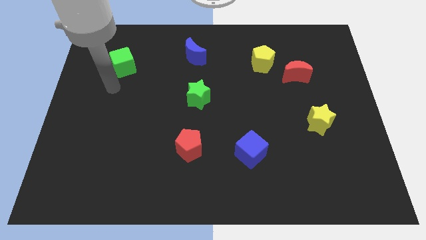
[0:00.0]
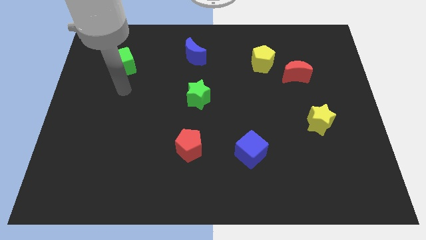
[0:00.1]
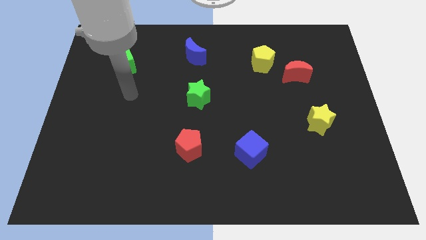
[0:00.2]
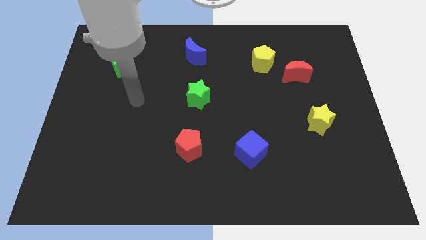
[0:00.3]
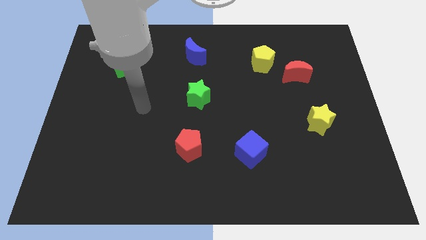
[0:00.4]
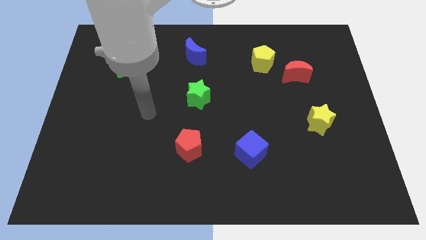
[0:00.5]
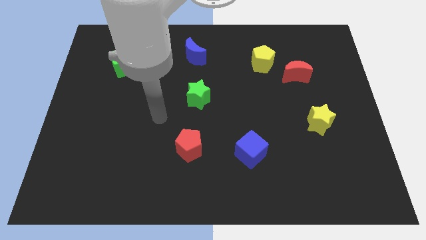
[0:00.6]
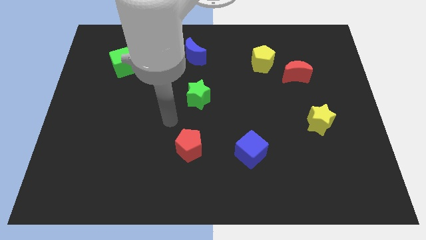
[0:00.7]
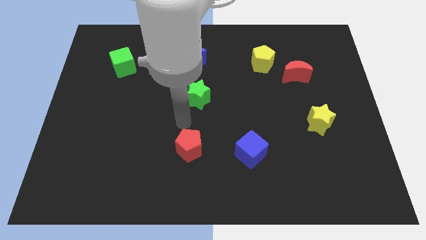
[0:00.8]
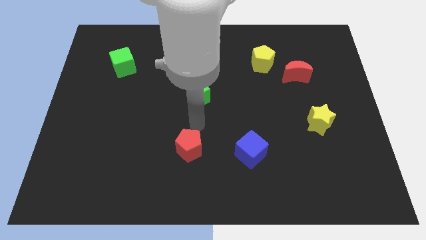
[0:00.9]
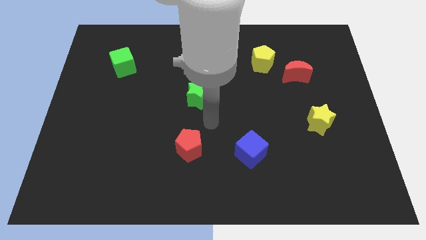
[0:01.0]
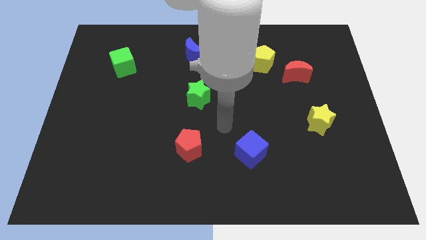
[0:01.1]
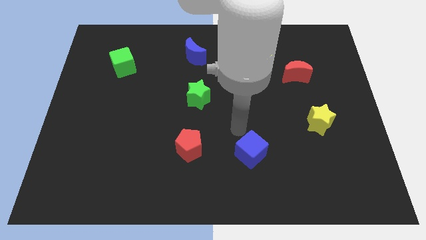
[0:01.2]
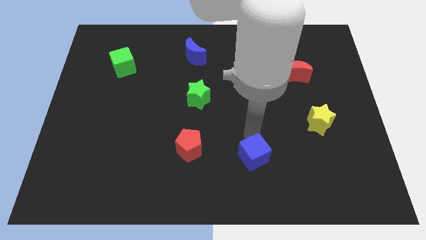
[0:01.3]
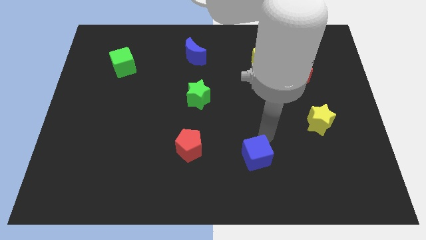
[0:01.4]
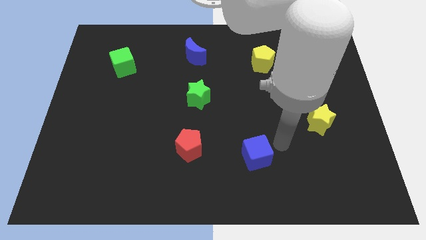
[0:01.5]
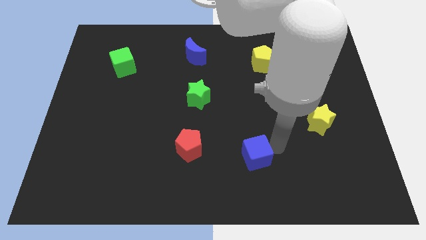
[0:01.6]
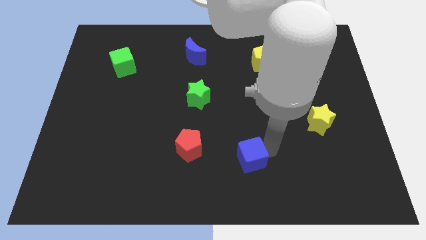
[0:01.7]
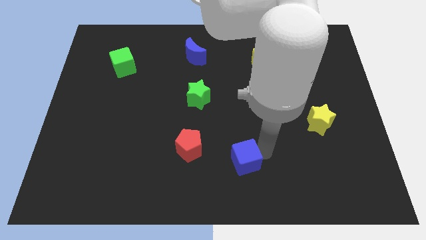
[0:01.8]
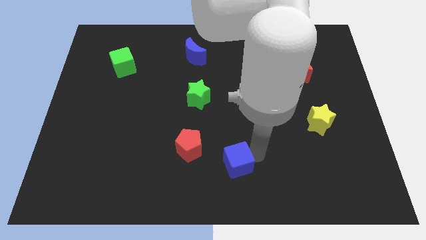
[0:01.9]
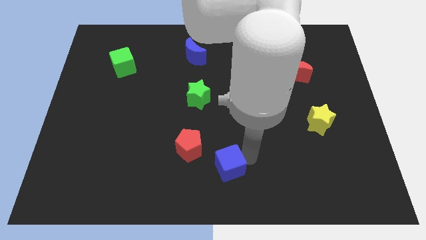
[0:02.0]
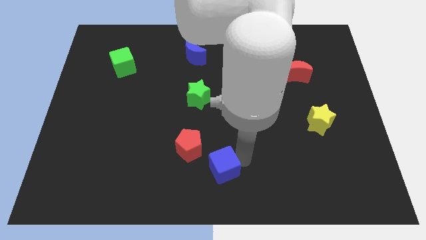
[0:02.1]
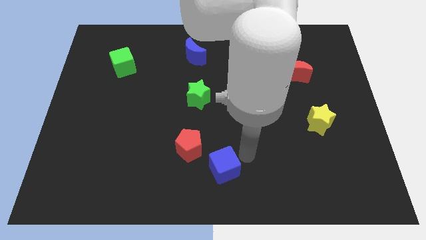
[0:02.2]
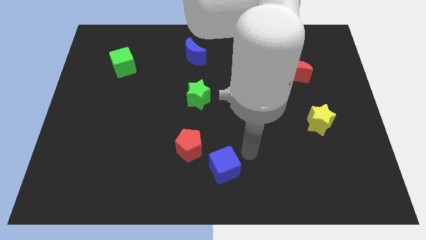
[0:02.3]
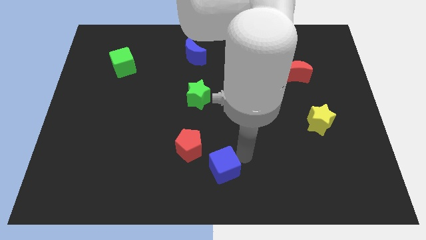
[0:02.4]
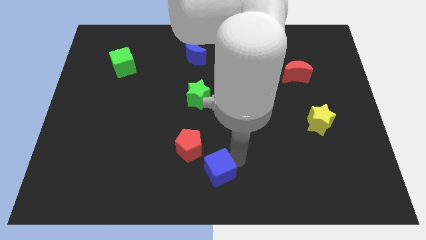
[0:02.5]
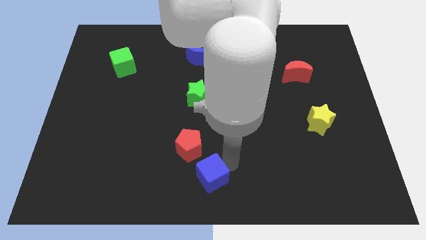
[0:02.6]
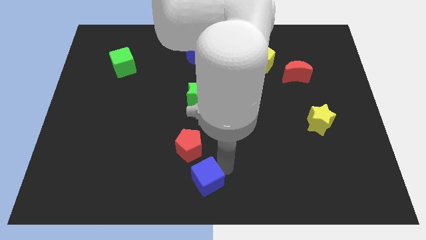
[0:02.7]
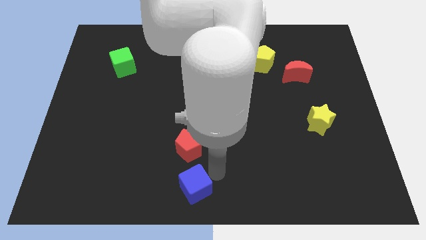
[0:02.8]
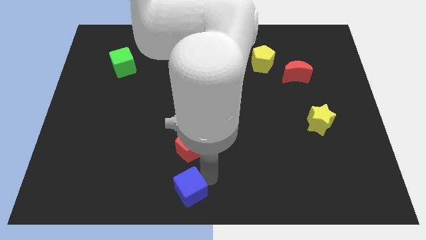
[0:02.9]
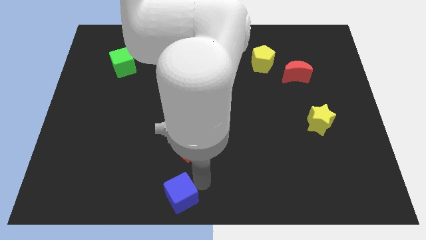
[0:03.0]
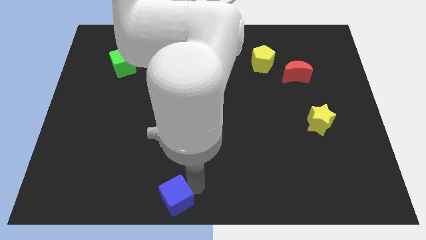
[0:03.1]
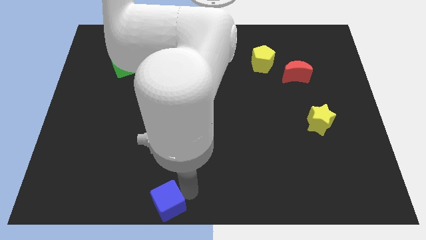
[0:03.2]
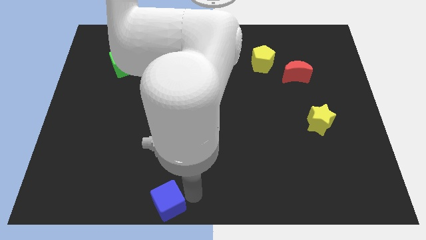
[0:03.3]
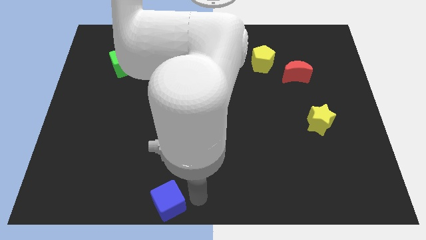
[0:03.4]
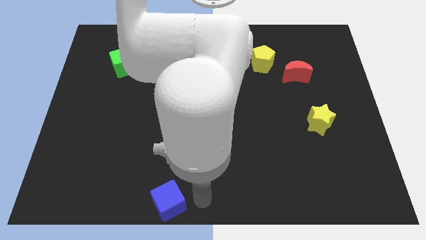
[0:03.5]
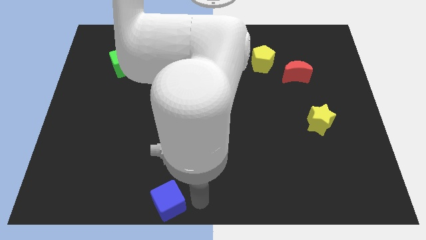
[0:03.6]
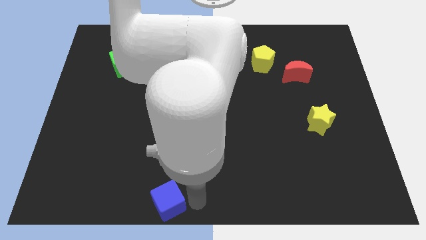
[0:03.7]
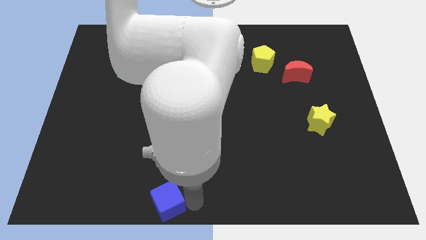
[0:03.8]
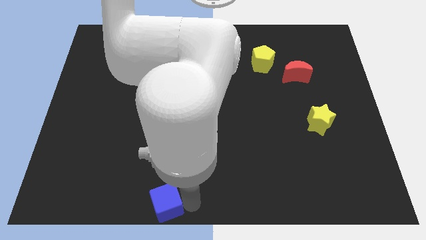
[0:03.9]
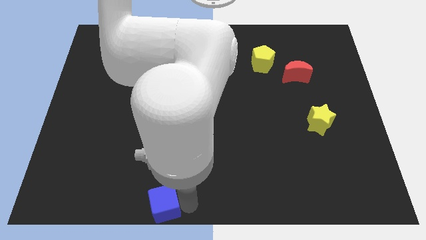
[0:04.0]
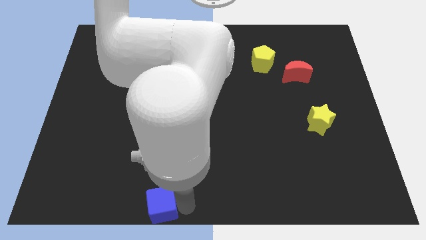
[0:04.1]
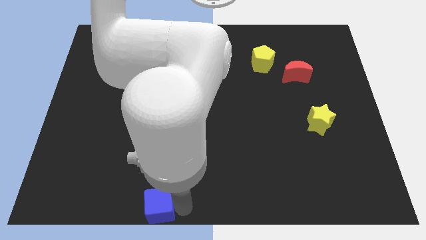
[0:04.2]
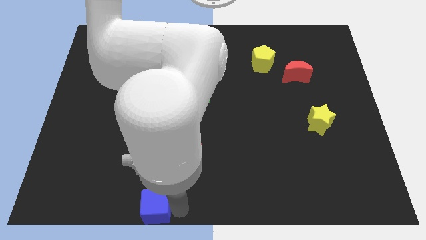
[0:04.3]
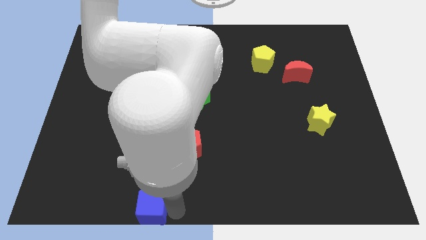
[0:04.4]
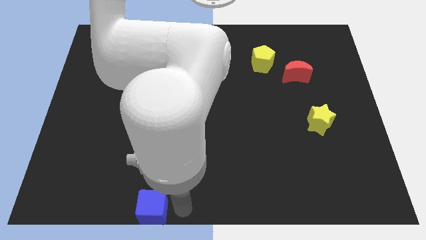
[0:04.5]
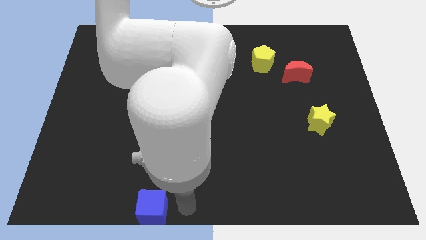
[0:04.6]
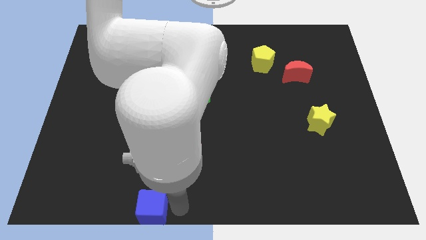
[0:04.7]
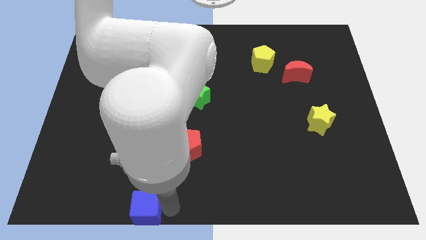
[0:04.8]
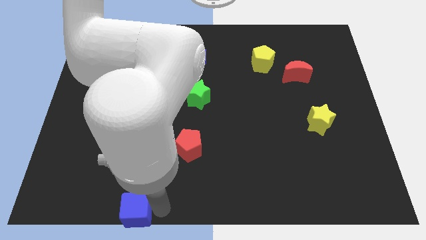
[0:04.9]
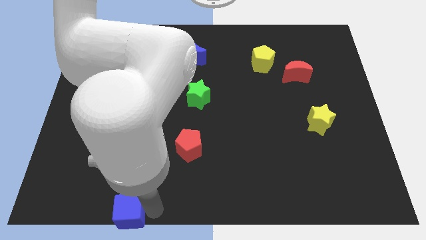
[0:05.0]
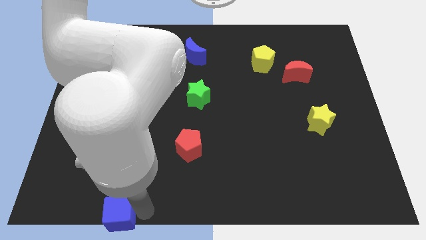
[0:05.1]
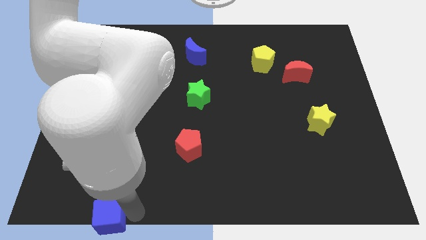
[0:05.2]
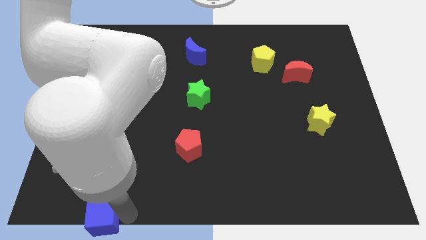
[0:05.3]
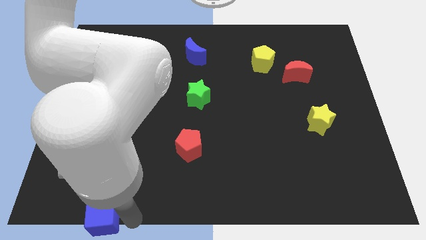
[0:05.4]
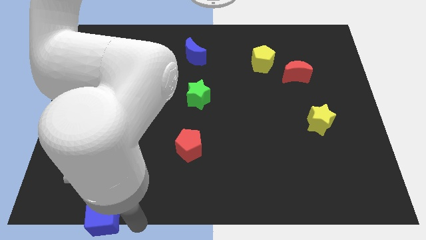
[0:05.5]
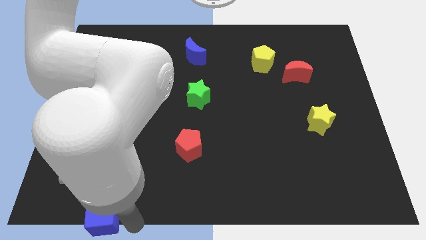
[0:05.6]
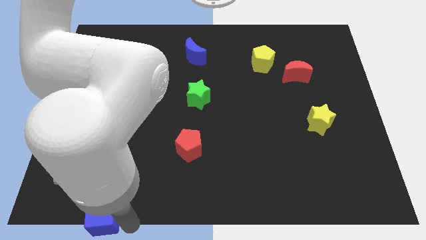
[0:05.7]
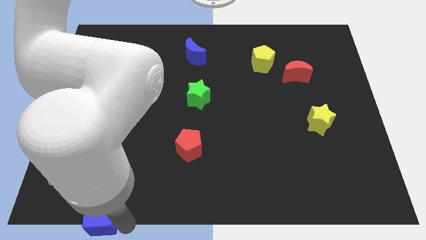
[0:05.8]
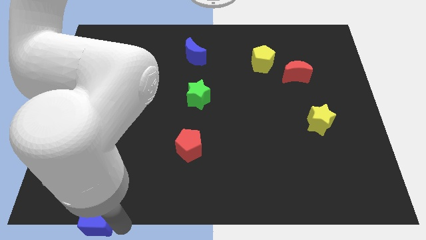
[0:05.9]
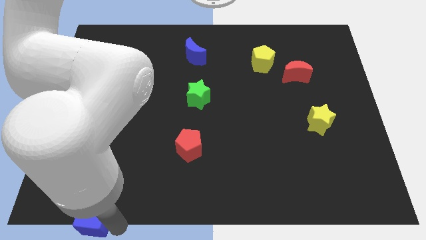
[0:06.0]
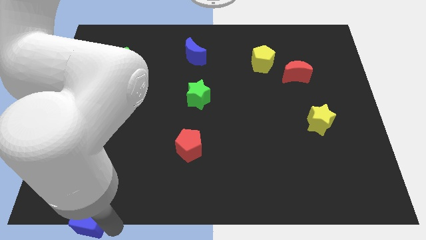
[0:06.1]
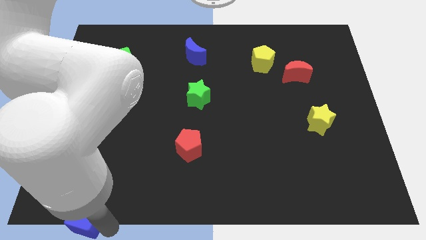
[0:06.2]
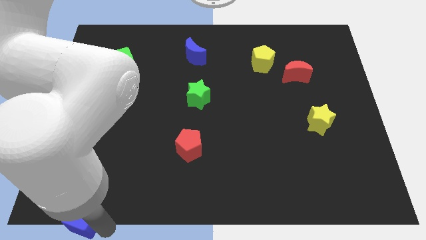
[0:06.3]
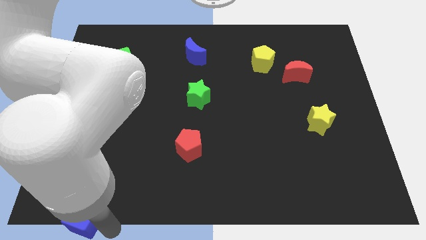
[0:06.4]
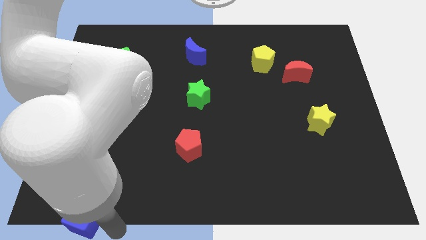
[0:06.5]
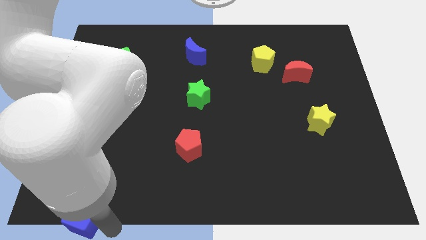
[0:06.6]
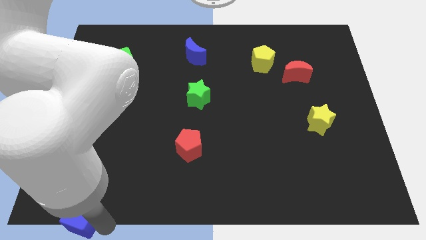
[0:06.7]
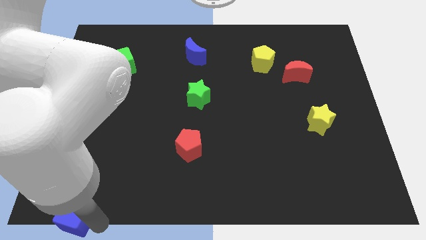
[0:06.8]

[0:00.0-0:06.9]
move the blue cube to the bottom left of the board

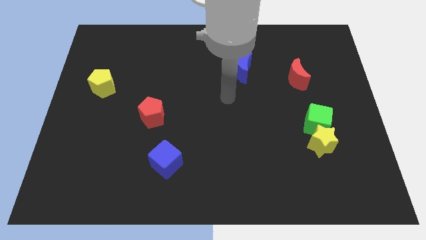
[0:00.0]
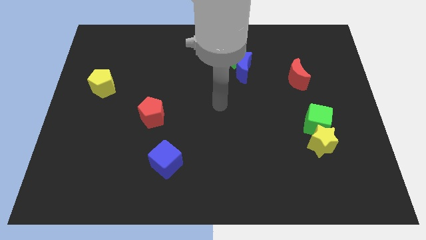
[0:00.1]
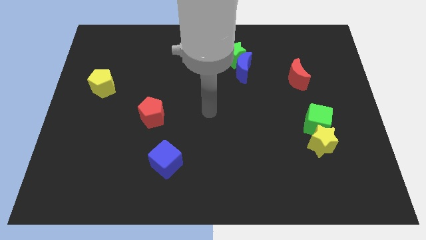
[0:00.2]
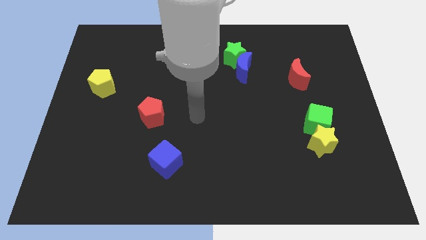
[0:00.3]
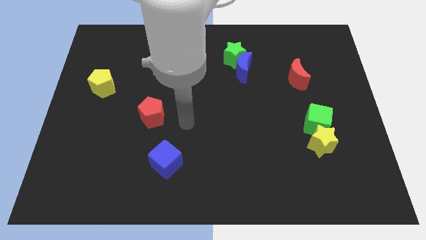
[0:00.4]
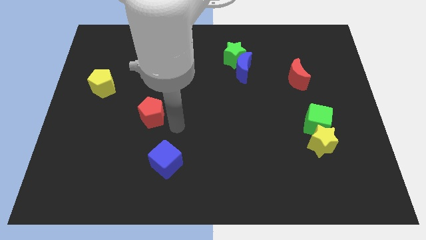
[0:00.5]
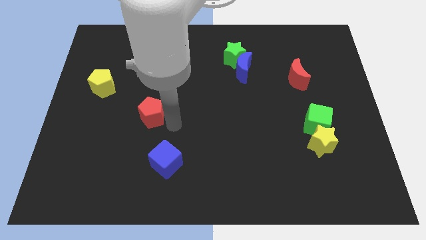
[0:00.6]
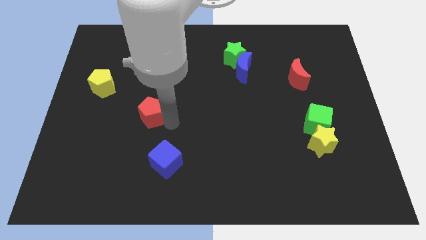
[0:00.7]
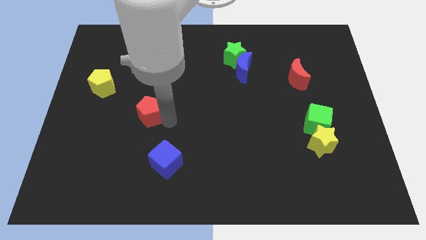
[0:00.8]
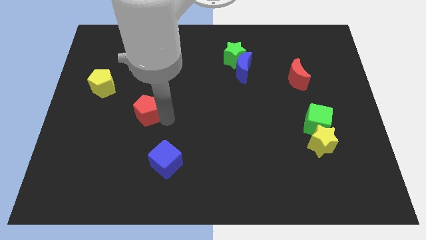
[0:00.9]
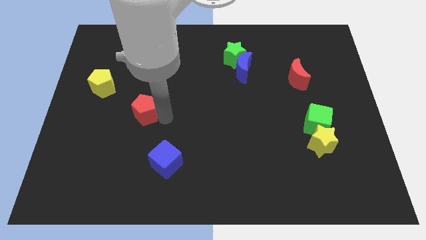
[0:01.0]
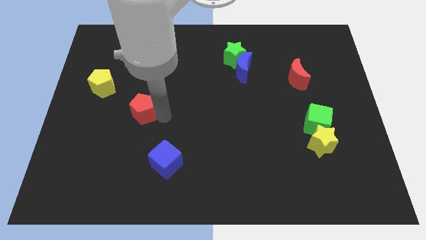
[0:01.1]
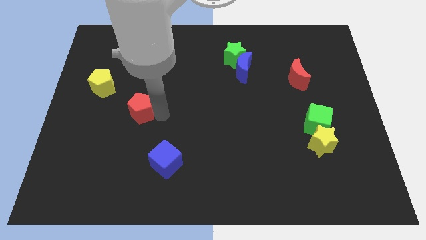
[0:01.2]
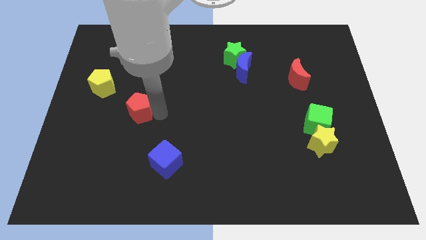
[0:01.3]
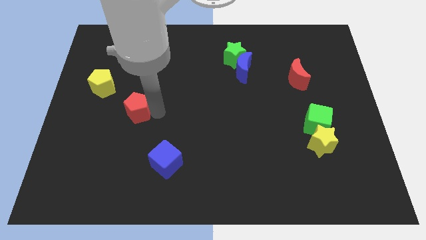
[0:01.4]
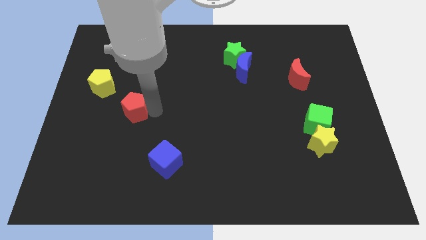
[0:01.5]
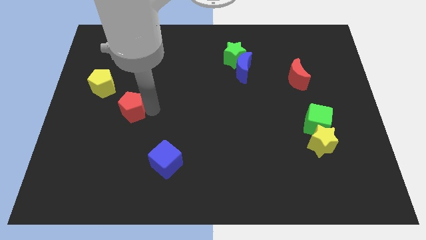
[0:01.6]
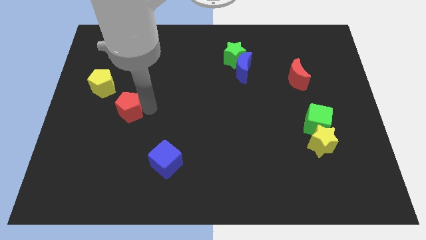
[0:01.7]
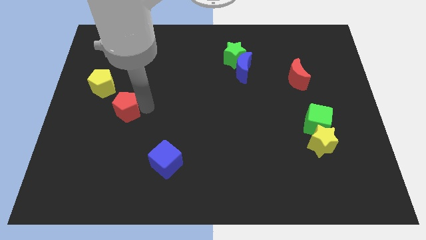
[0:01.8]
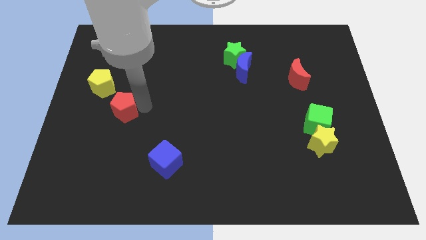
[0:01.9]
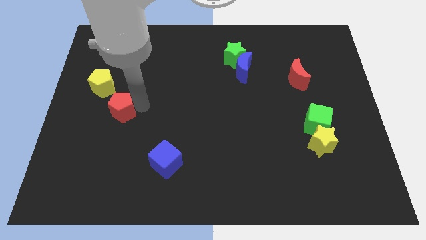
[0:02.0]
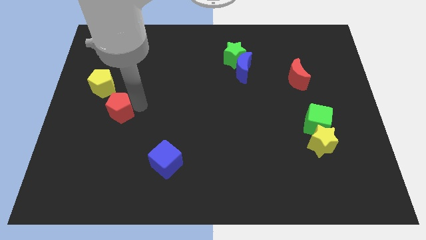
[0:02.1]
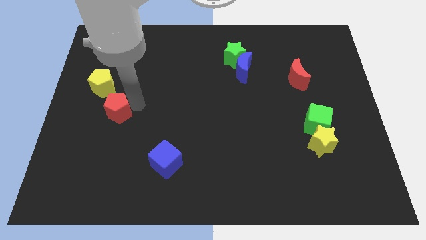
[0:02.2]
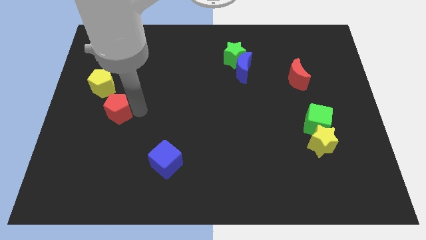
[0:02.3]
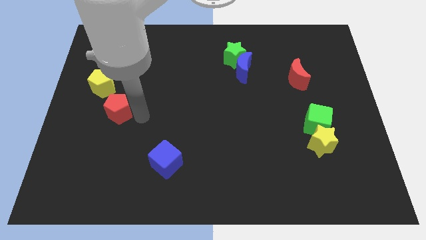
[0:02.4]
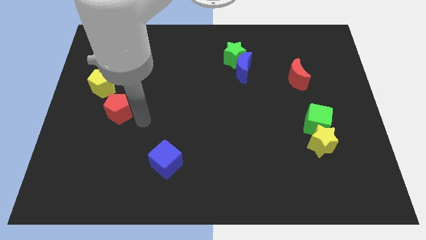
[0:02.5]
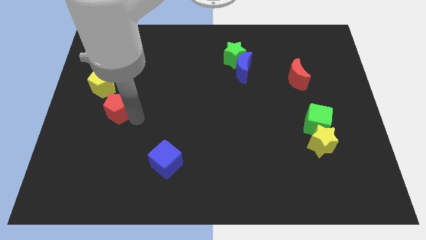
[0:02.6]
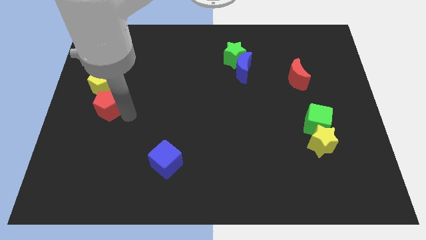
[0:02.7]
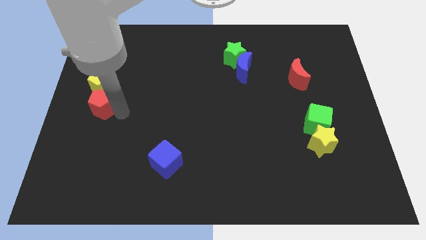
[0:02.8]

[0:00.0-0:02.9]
put the red pentagon to the left side of the board
